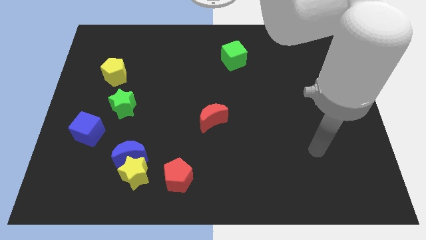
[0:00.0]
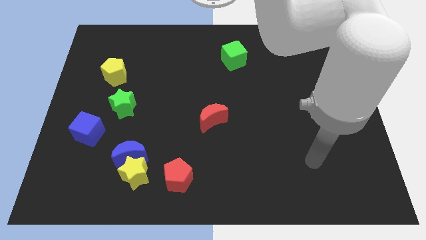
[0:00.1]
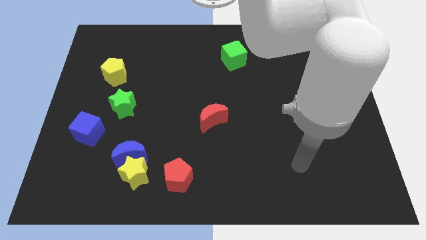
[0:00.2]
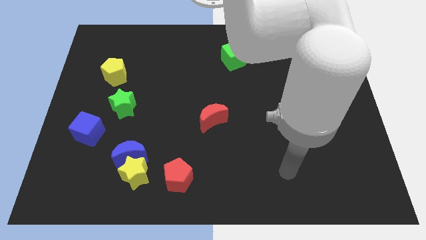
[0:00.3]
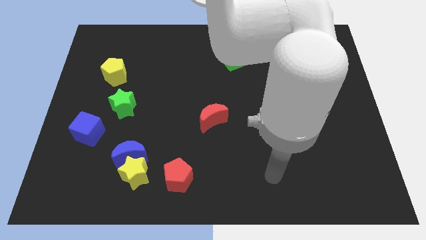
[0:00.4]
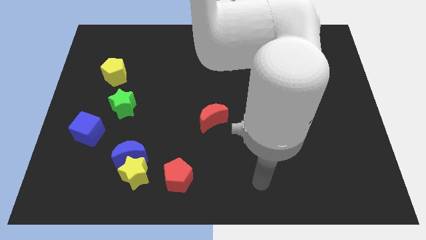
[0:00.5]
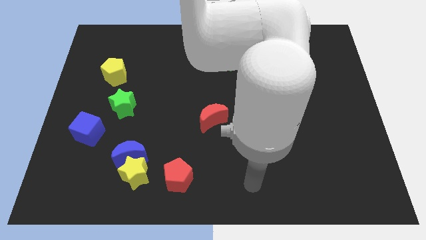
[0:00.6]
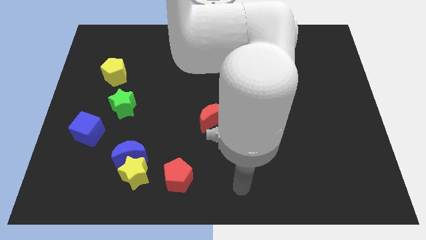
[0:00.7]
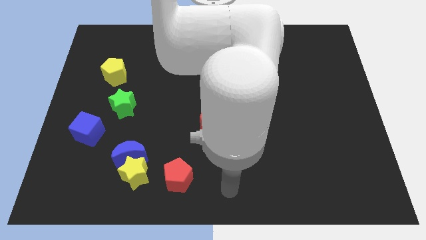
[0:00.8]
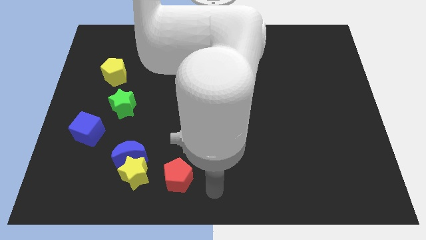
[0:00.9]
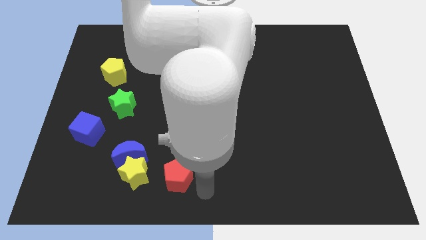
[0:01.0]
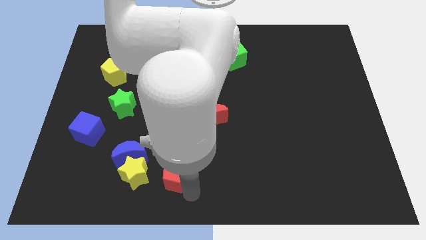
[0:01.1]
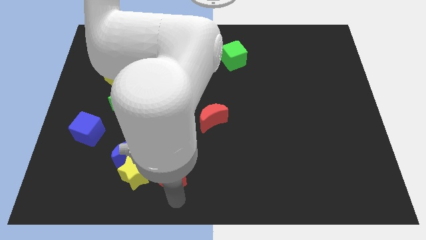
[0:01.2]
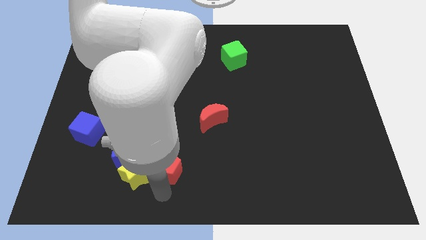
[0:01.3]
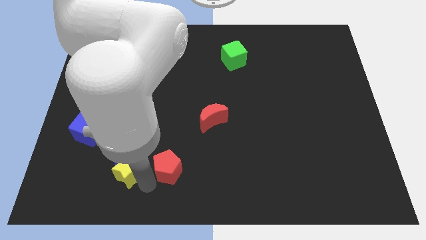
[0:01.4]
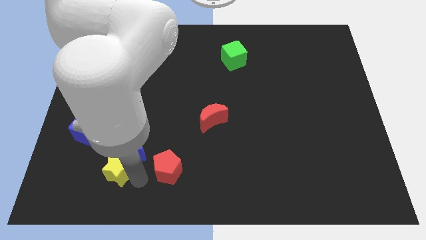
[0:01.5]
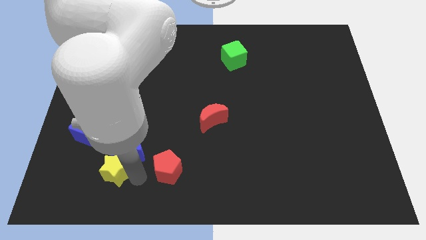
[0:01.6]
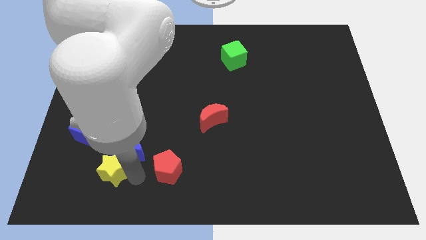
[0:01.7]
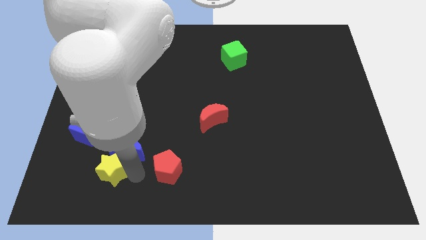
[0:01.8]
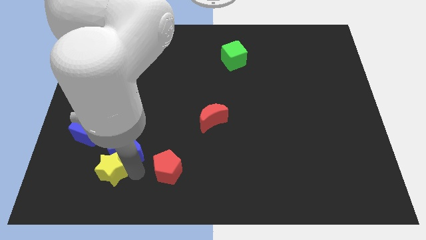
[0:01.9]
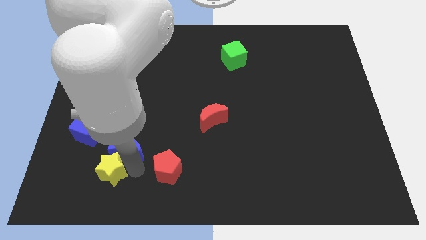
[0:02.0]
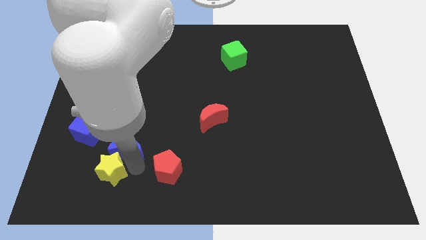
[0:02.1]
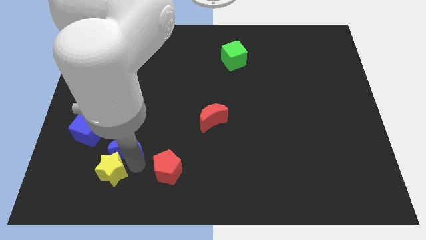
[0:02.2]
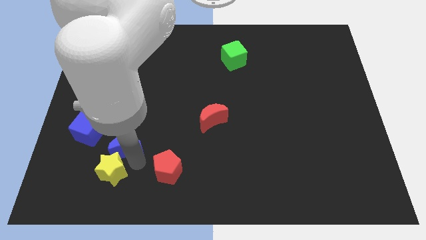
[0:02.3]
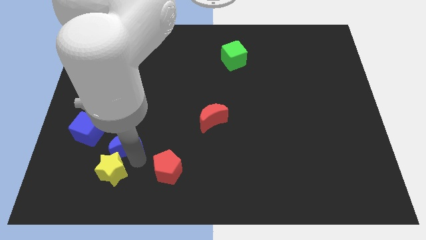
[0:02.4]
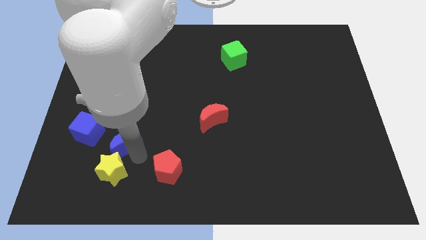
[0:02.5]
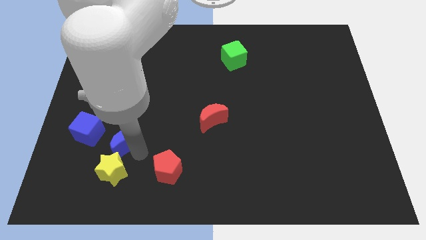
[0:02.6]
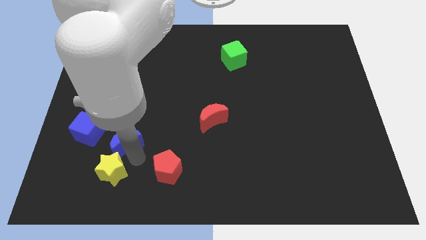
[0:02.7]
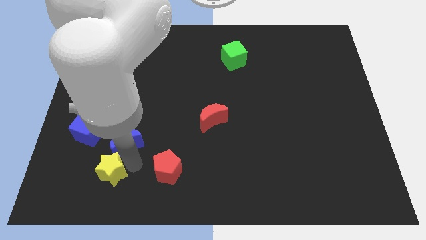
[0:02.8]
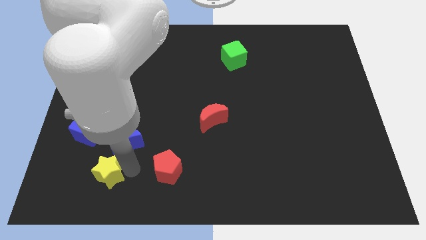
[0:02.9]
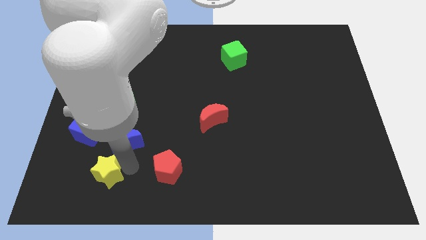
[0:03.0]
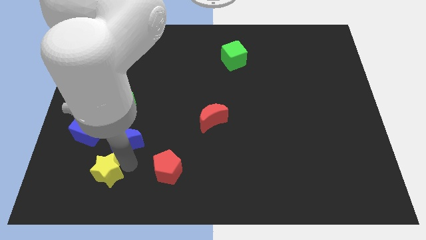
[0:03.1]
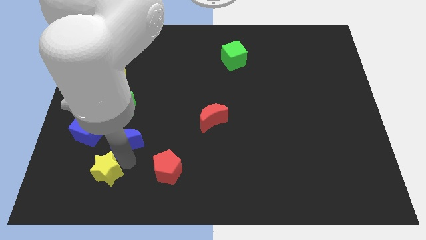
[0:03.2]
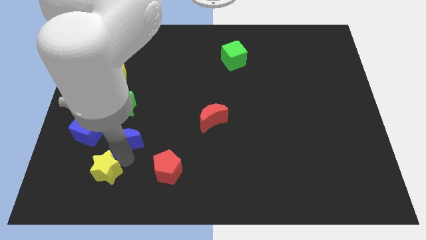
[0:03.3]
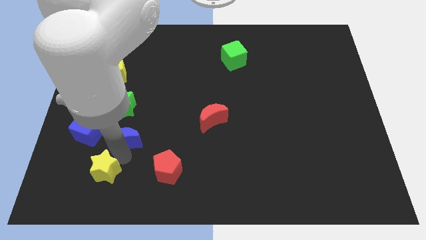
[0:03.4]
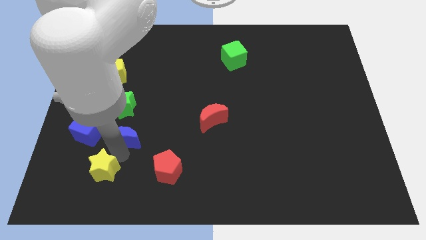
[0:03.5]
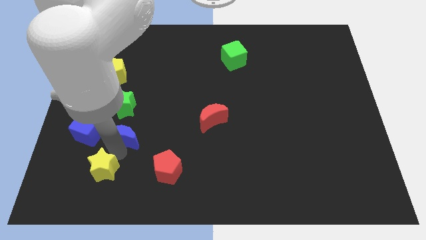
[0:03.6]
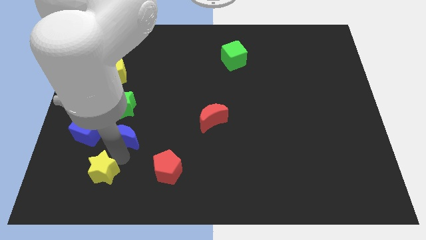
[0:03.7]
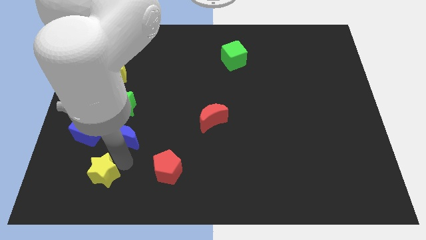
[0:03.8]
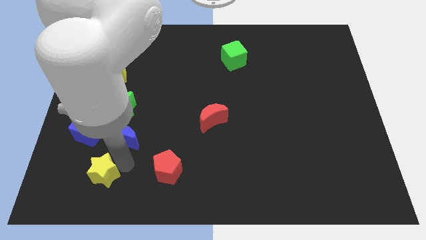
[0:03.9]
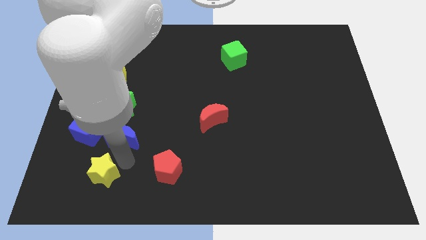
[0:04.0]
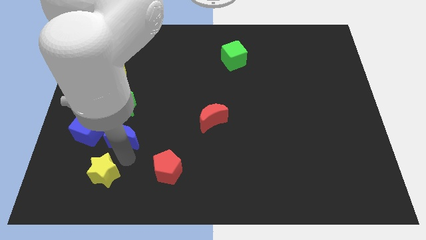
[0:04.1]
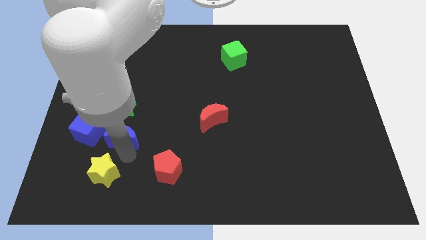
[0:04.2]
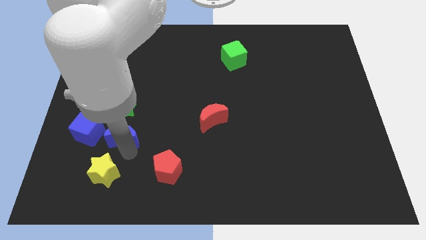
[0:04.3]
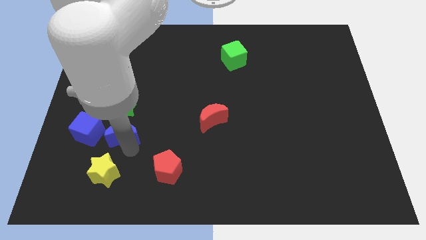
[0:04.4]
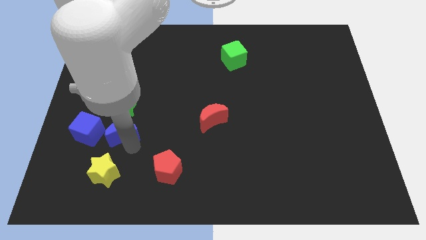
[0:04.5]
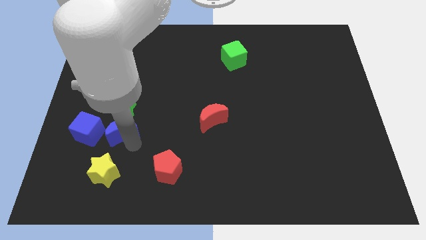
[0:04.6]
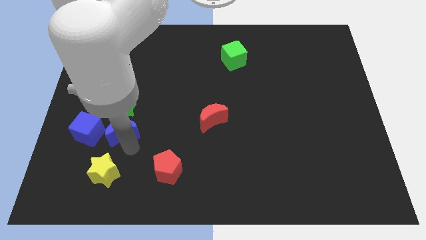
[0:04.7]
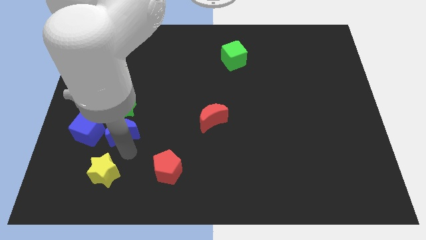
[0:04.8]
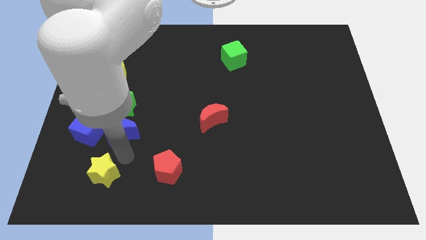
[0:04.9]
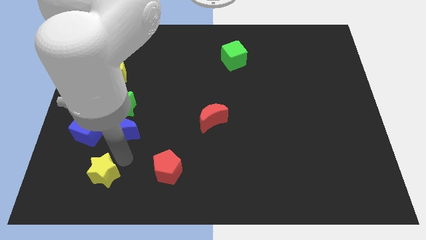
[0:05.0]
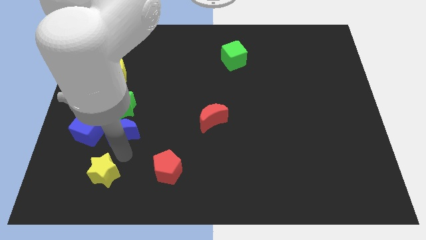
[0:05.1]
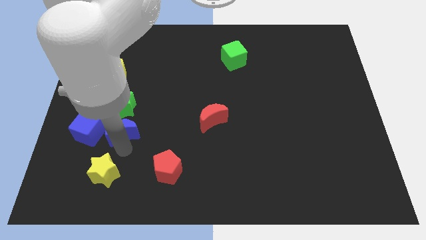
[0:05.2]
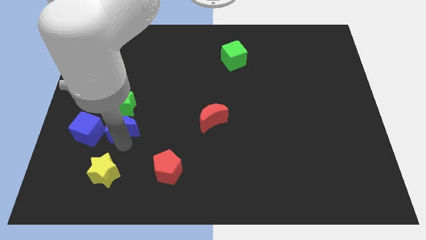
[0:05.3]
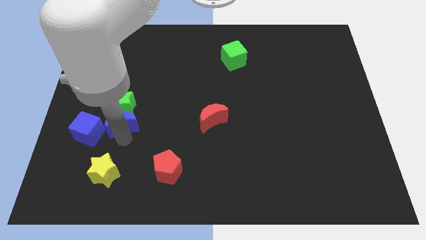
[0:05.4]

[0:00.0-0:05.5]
slide the blue moon to the green star
